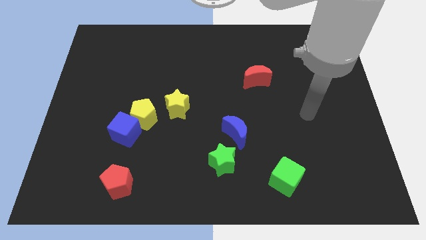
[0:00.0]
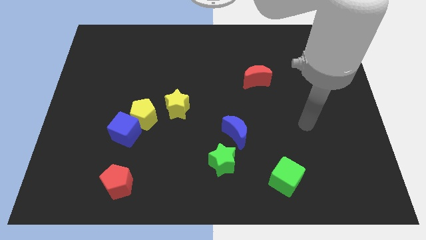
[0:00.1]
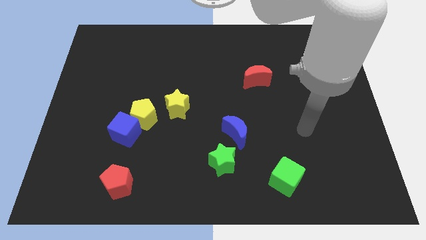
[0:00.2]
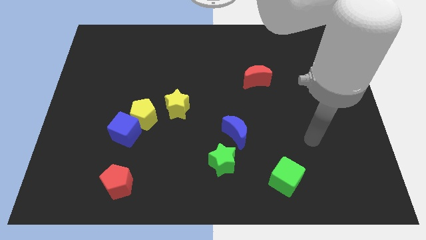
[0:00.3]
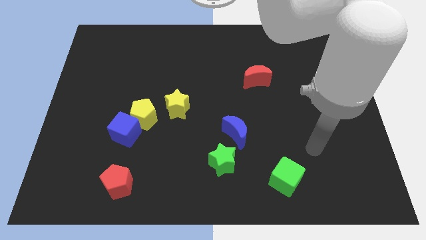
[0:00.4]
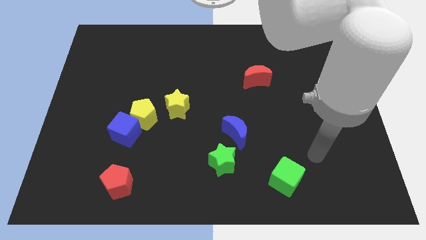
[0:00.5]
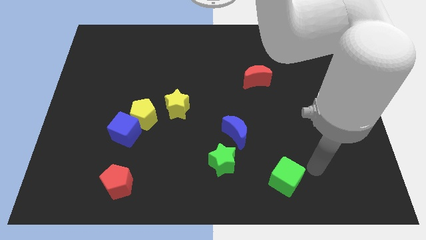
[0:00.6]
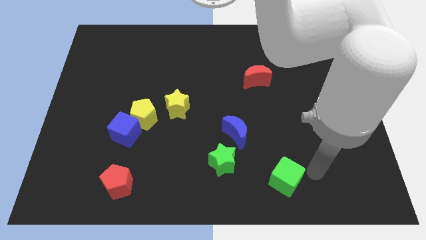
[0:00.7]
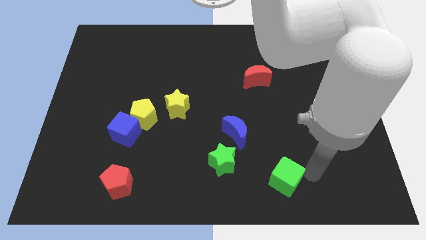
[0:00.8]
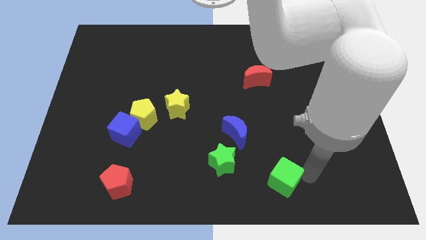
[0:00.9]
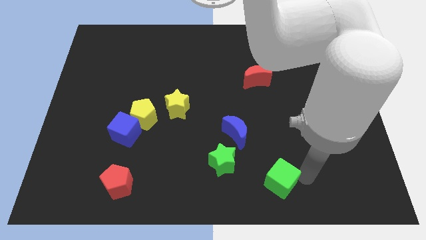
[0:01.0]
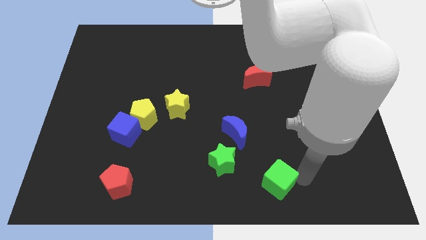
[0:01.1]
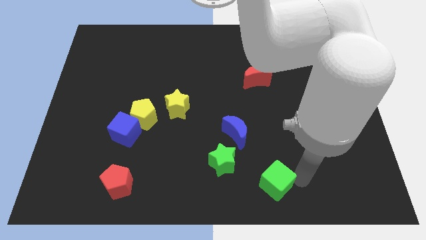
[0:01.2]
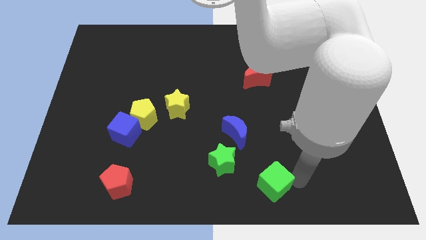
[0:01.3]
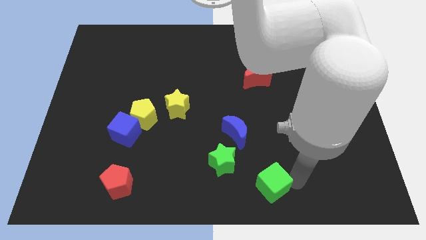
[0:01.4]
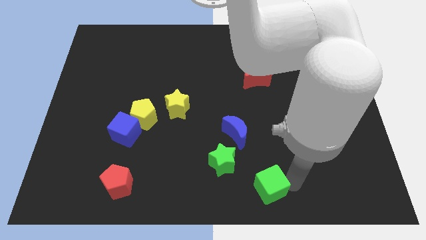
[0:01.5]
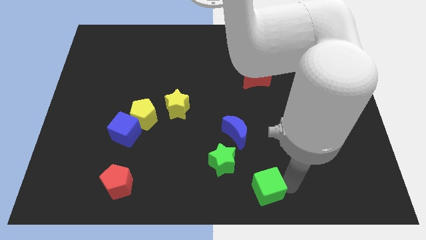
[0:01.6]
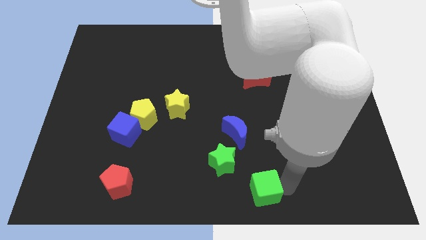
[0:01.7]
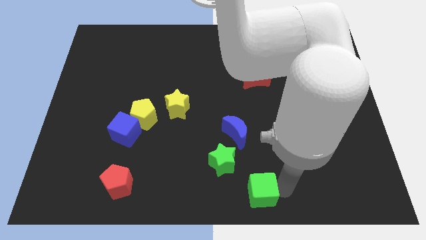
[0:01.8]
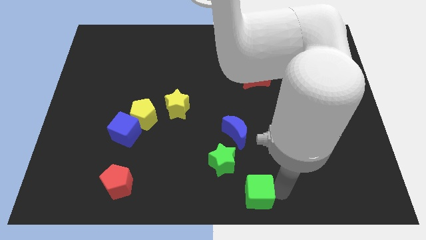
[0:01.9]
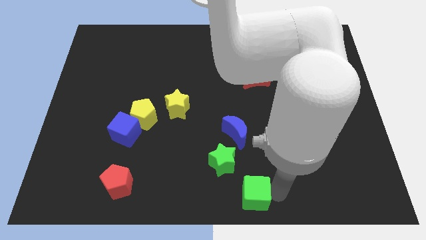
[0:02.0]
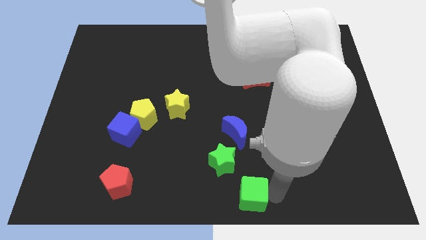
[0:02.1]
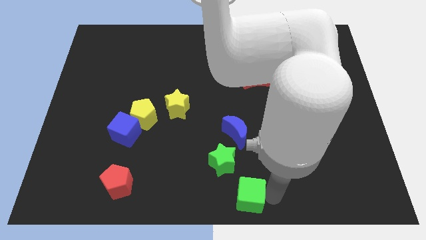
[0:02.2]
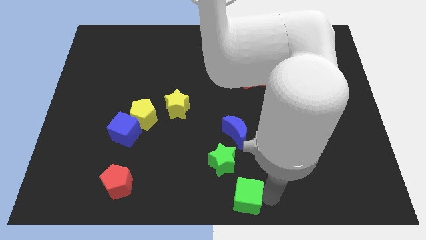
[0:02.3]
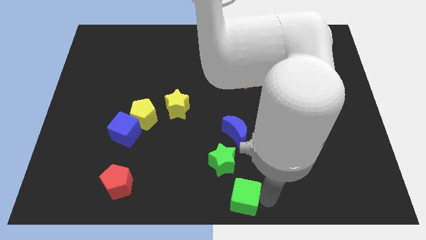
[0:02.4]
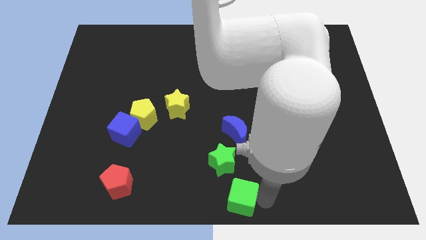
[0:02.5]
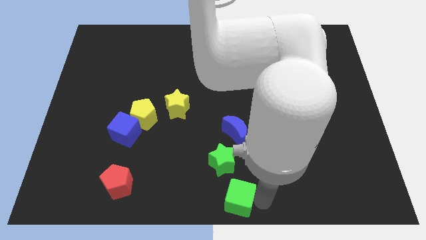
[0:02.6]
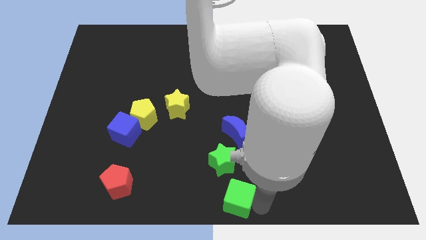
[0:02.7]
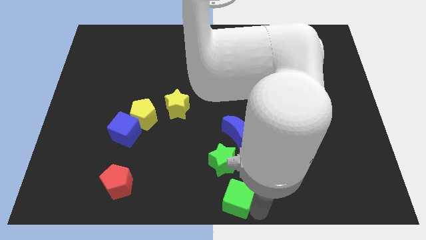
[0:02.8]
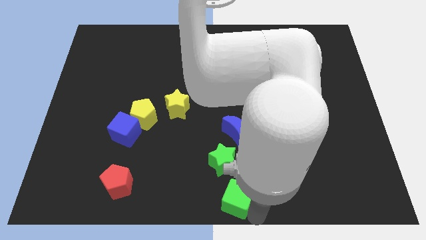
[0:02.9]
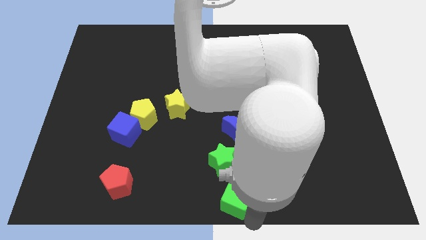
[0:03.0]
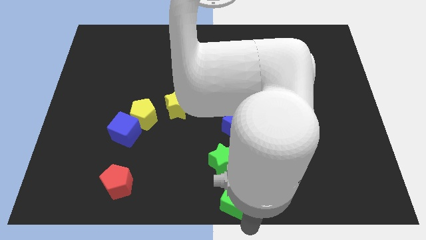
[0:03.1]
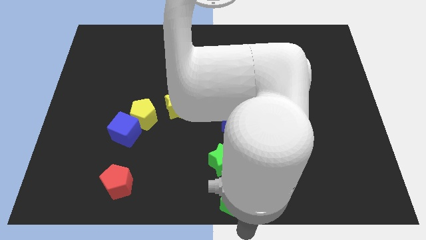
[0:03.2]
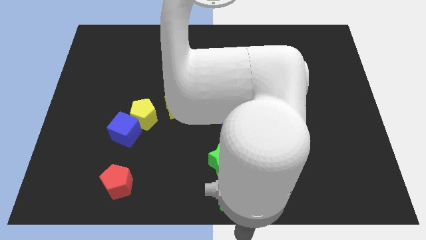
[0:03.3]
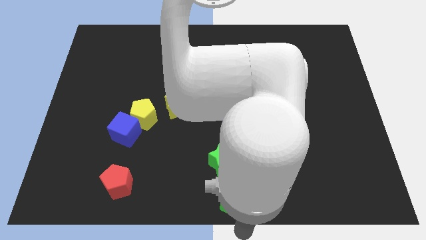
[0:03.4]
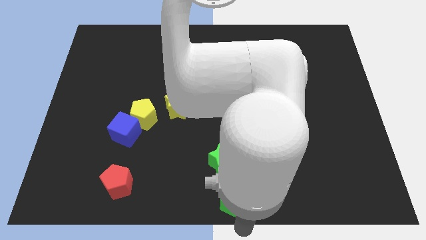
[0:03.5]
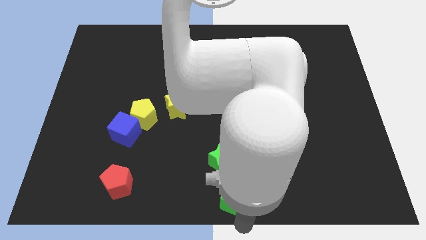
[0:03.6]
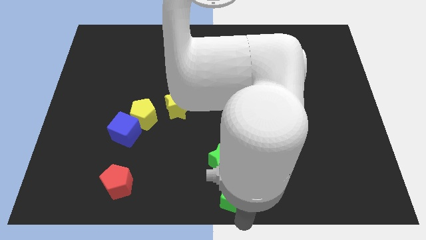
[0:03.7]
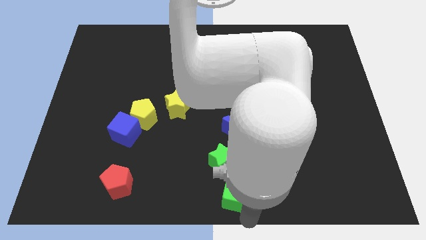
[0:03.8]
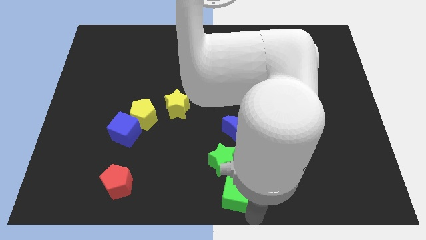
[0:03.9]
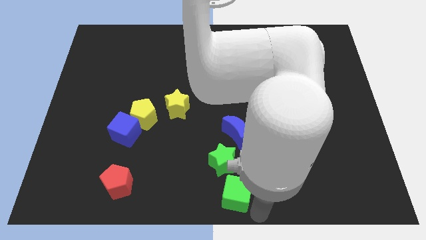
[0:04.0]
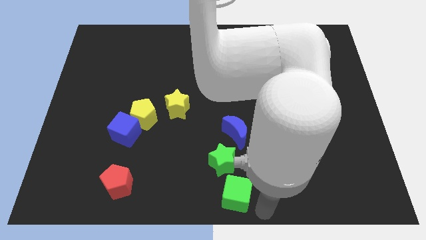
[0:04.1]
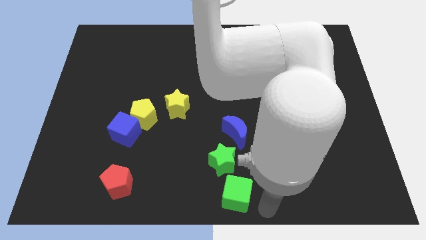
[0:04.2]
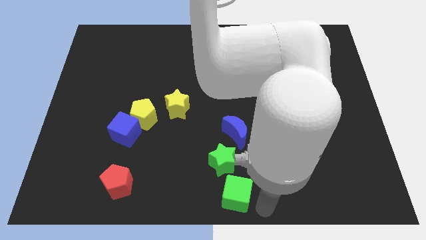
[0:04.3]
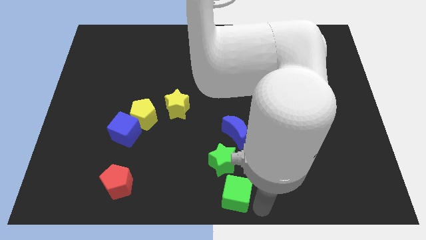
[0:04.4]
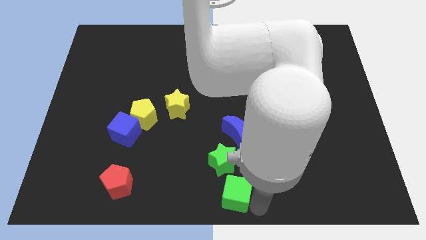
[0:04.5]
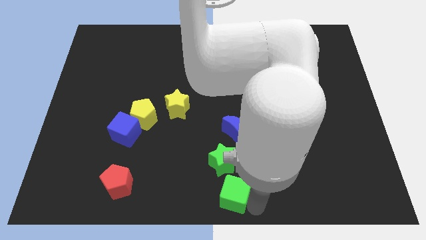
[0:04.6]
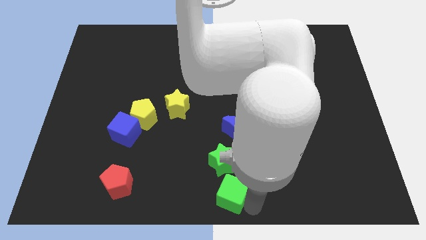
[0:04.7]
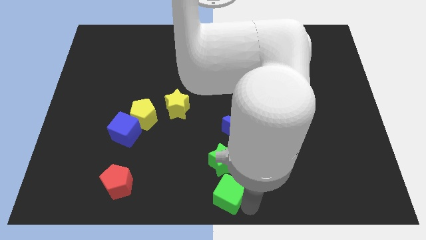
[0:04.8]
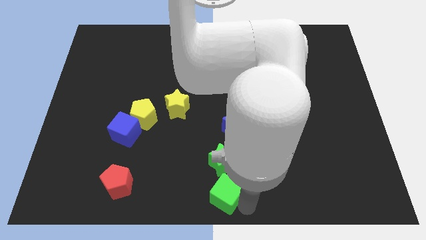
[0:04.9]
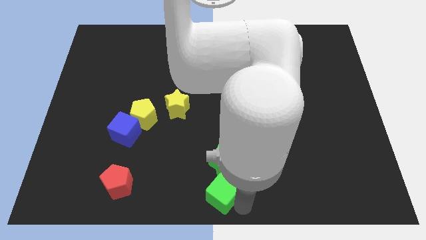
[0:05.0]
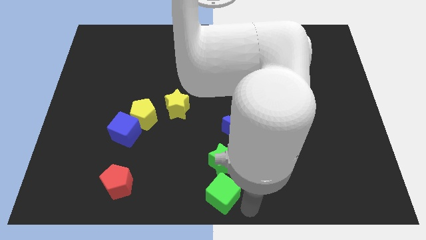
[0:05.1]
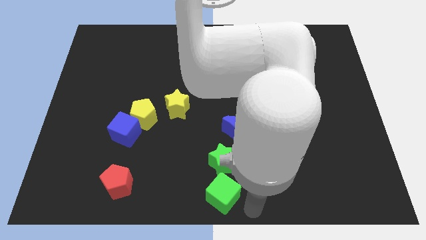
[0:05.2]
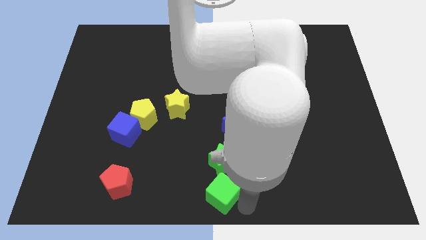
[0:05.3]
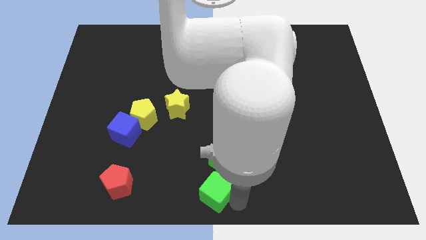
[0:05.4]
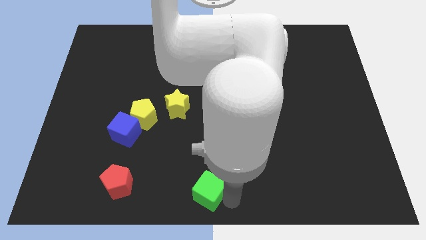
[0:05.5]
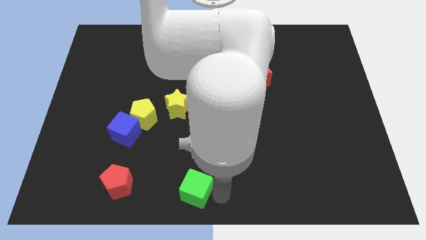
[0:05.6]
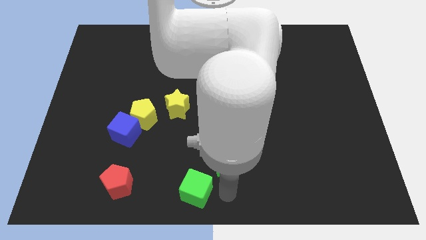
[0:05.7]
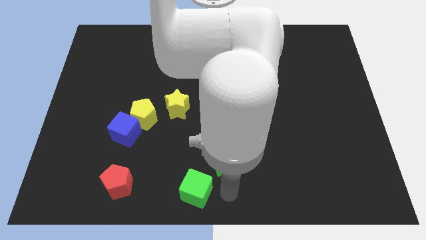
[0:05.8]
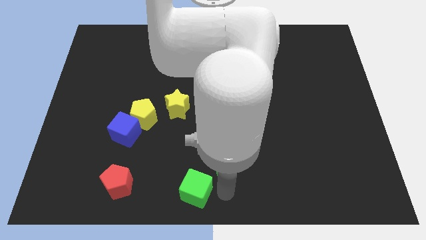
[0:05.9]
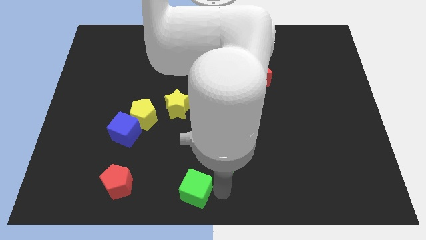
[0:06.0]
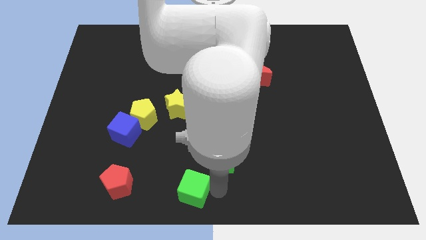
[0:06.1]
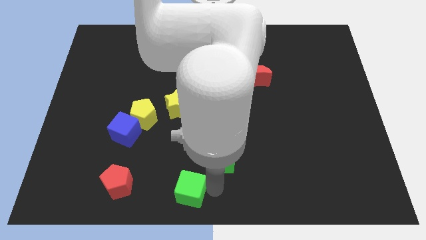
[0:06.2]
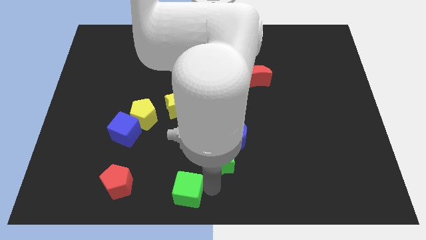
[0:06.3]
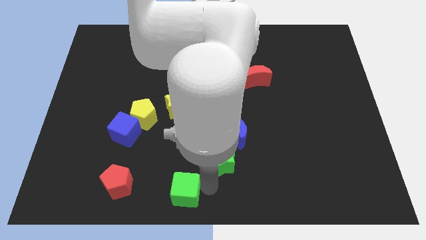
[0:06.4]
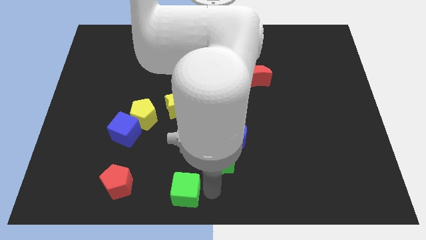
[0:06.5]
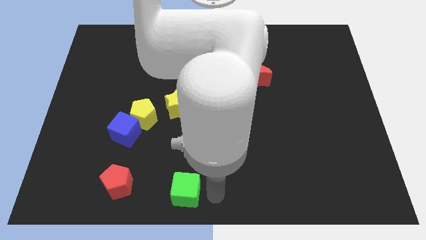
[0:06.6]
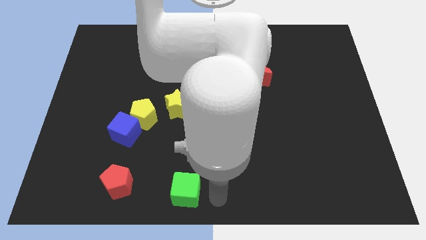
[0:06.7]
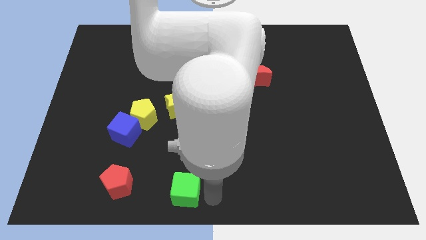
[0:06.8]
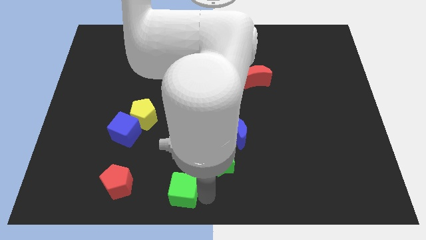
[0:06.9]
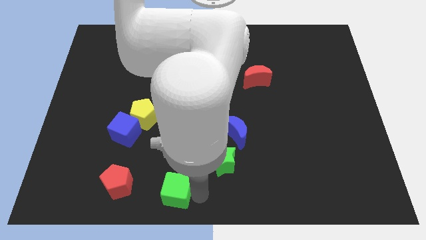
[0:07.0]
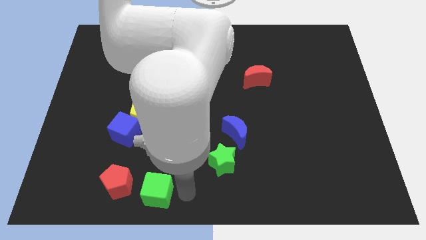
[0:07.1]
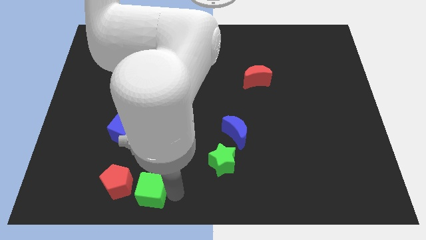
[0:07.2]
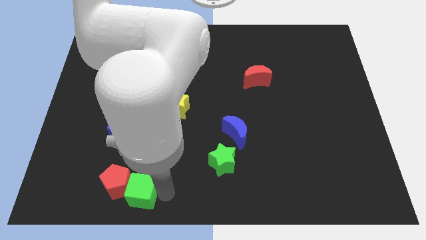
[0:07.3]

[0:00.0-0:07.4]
move the green cube towards the red pentagon

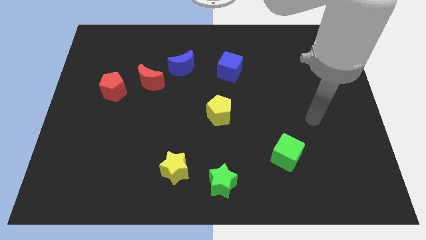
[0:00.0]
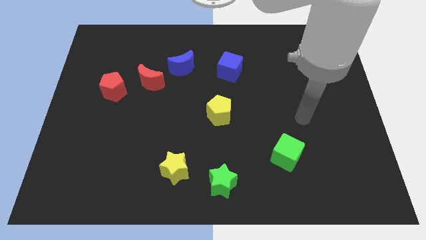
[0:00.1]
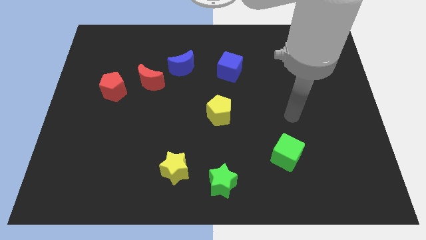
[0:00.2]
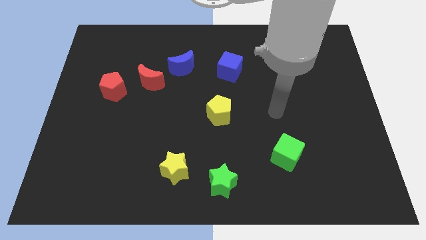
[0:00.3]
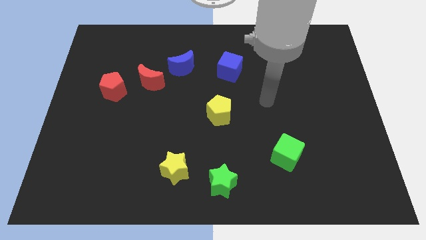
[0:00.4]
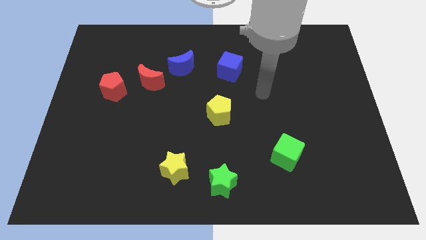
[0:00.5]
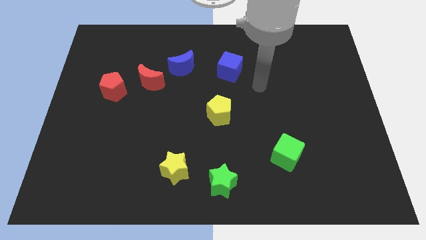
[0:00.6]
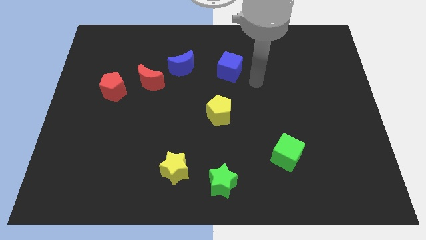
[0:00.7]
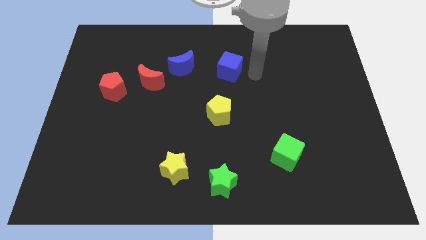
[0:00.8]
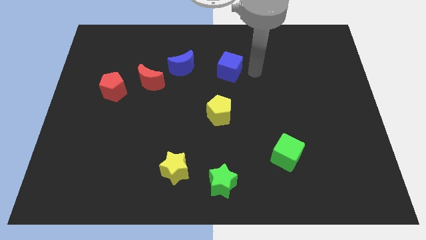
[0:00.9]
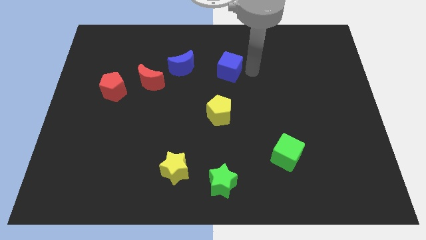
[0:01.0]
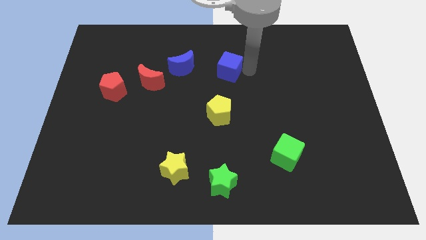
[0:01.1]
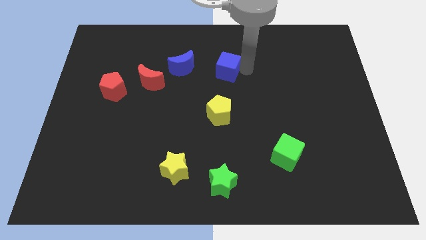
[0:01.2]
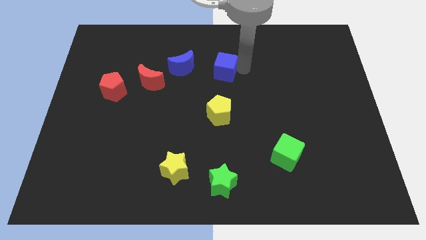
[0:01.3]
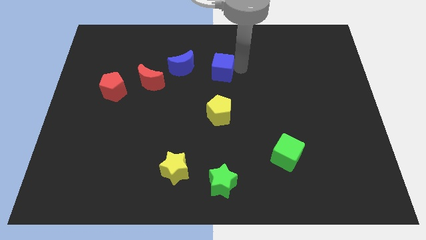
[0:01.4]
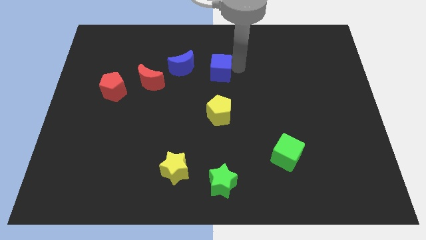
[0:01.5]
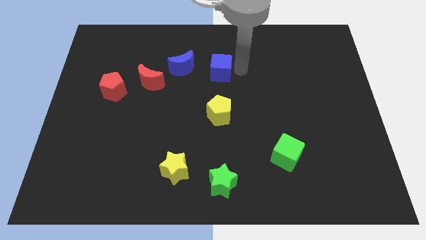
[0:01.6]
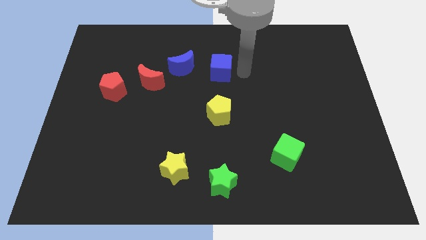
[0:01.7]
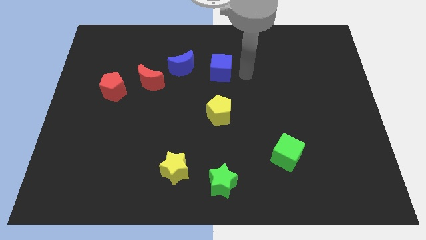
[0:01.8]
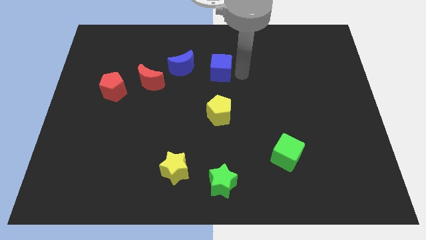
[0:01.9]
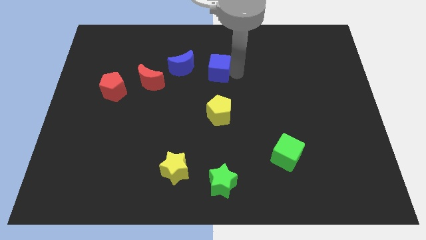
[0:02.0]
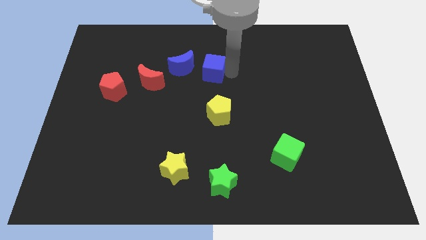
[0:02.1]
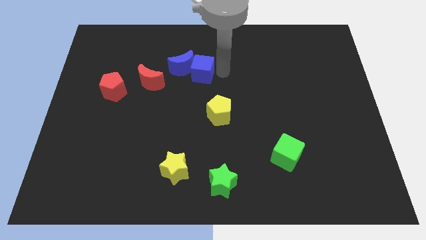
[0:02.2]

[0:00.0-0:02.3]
put the blue cube close to the blue moon
